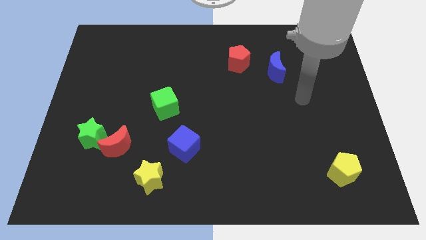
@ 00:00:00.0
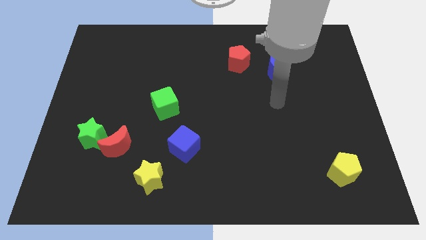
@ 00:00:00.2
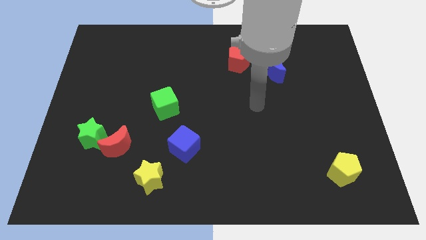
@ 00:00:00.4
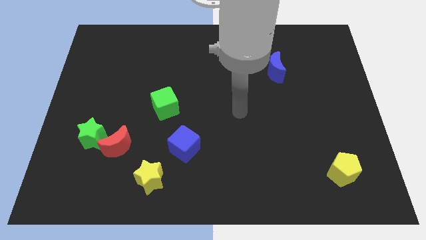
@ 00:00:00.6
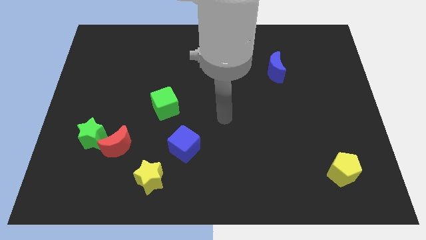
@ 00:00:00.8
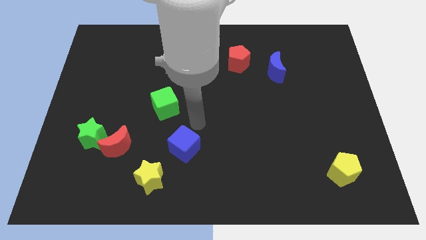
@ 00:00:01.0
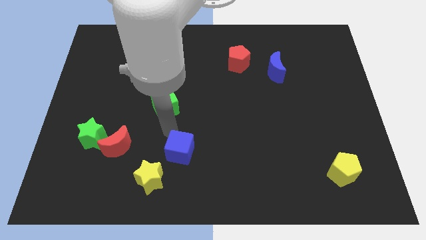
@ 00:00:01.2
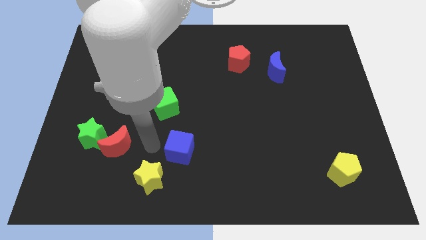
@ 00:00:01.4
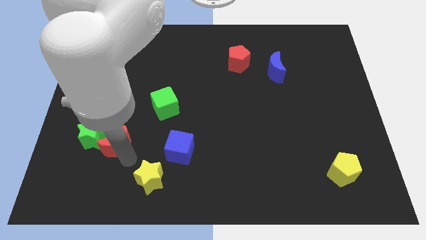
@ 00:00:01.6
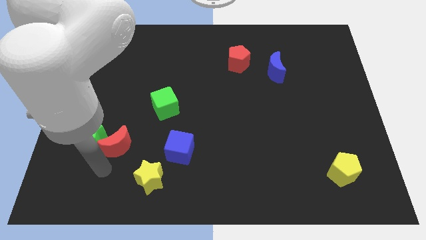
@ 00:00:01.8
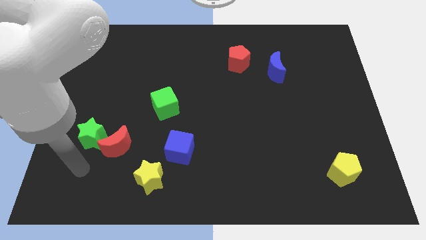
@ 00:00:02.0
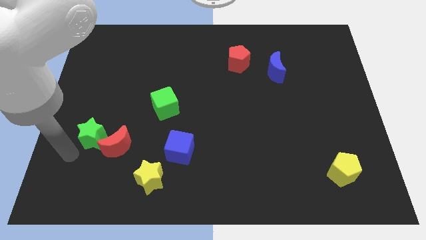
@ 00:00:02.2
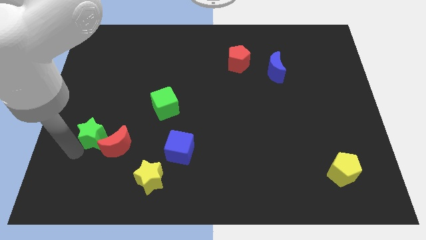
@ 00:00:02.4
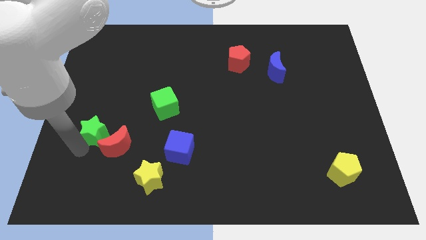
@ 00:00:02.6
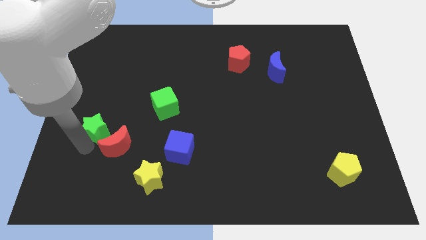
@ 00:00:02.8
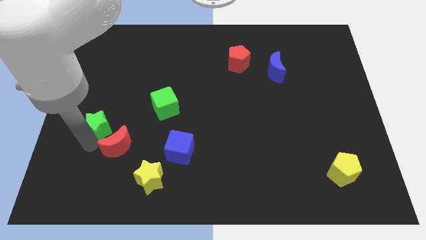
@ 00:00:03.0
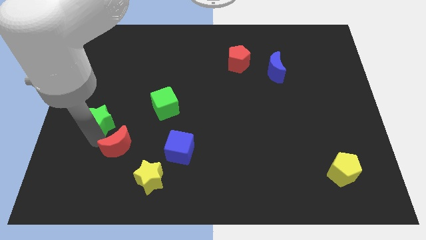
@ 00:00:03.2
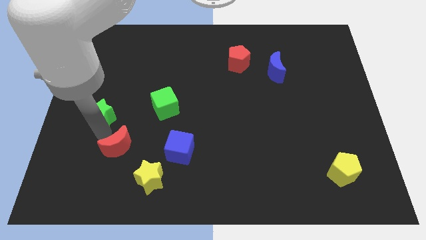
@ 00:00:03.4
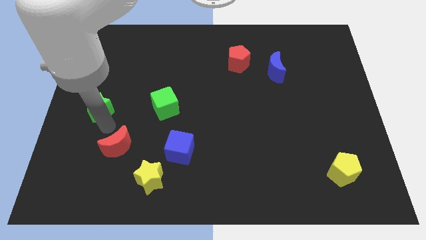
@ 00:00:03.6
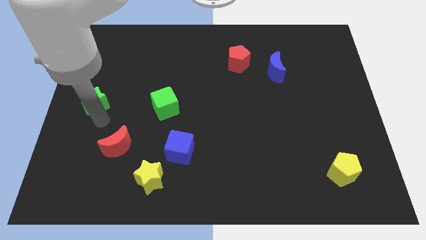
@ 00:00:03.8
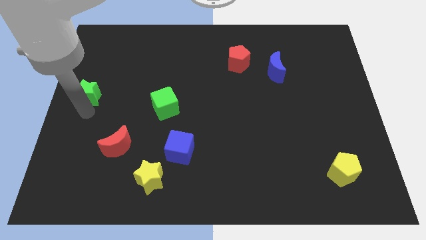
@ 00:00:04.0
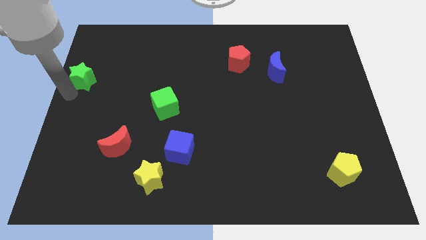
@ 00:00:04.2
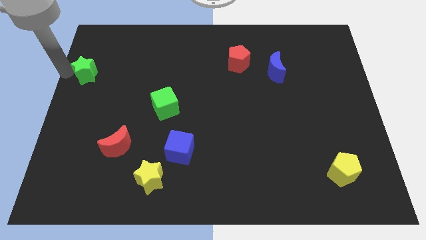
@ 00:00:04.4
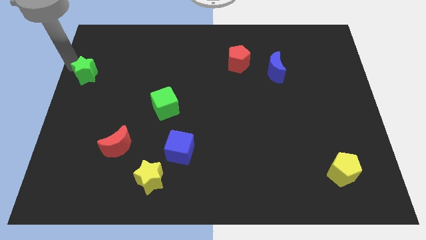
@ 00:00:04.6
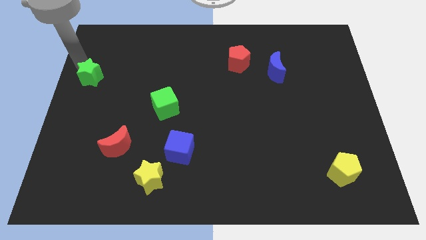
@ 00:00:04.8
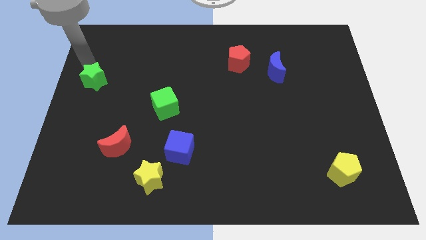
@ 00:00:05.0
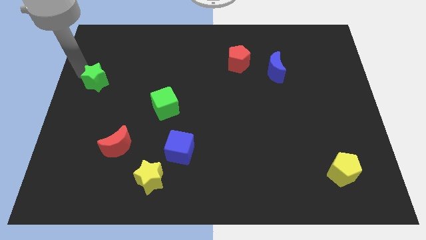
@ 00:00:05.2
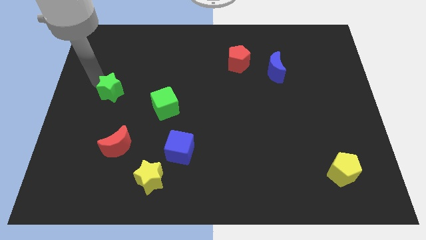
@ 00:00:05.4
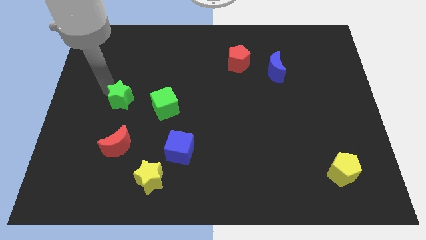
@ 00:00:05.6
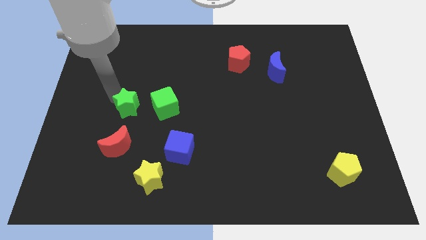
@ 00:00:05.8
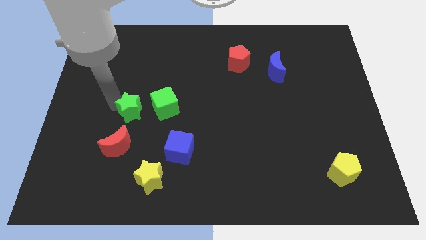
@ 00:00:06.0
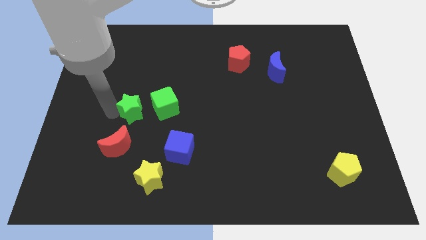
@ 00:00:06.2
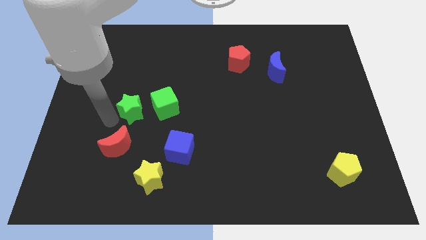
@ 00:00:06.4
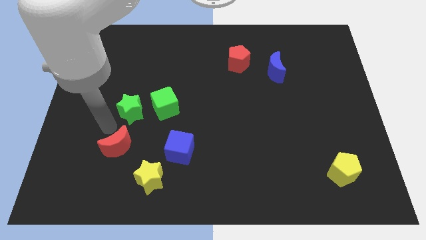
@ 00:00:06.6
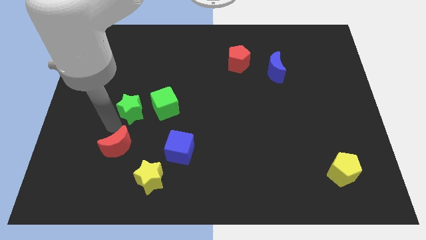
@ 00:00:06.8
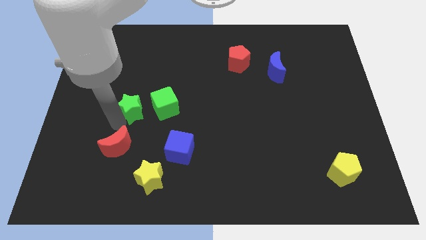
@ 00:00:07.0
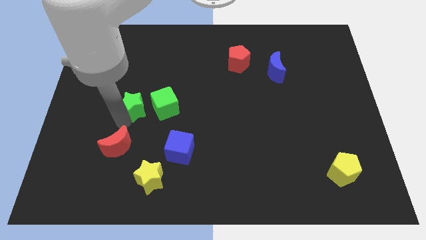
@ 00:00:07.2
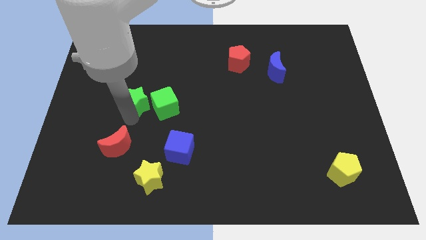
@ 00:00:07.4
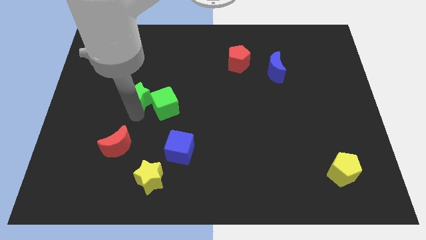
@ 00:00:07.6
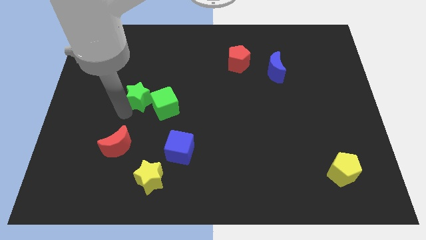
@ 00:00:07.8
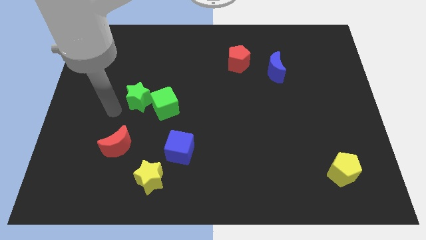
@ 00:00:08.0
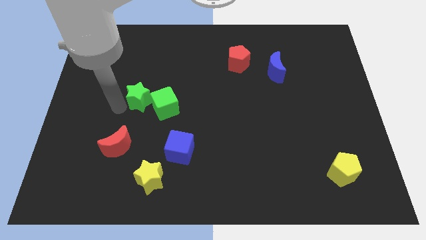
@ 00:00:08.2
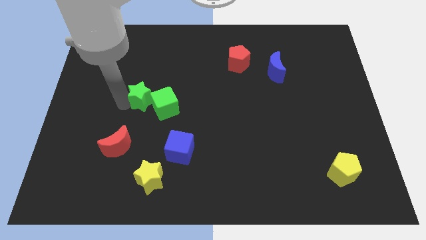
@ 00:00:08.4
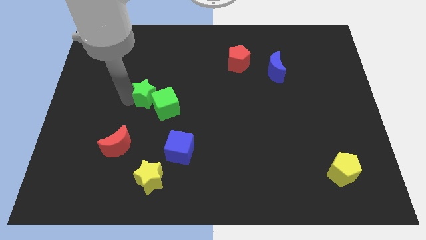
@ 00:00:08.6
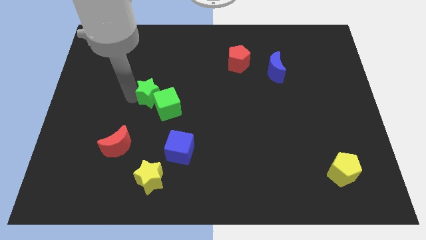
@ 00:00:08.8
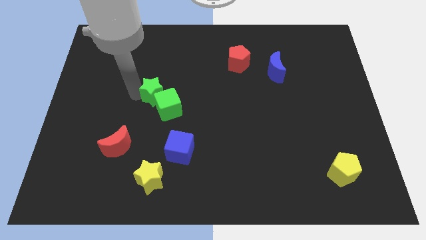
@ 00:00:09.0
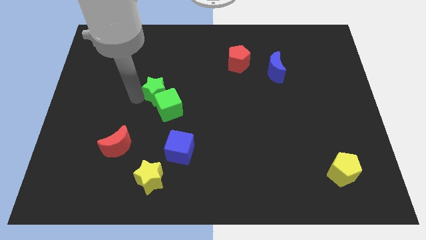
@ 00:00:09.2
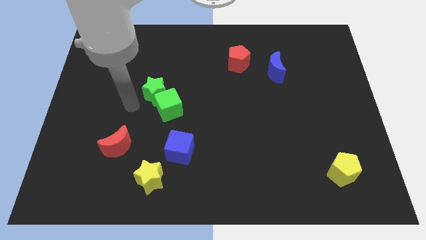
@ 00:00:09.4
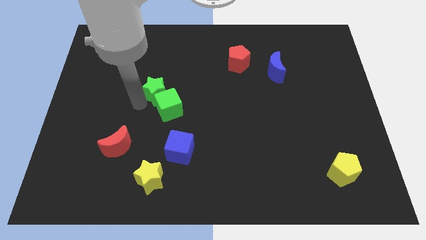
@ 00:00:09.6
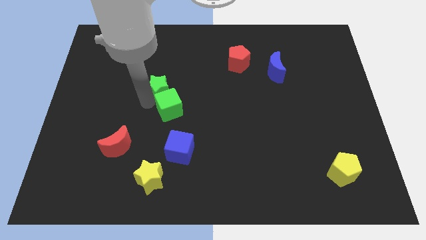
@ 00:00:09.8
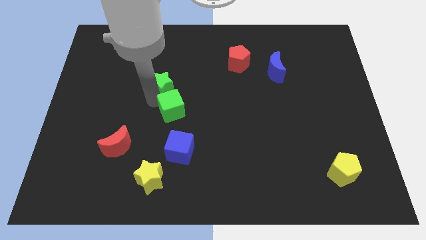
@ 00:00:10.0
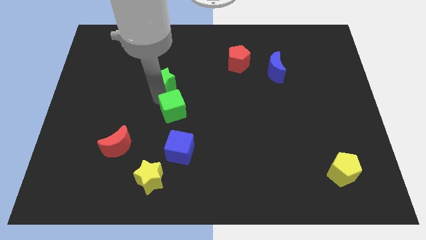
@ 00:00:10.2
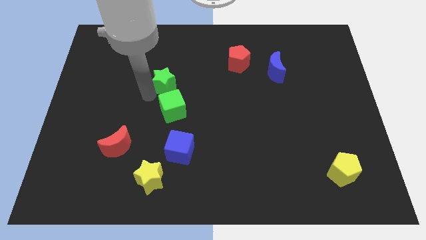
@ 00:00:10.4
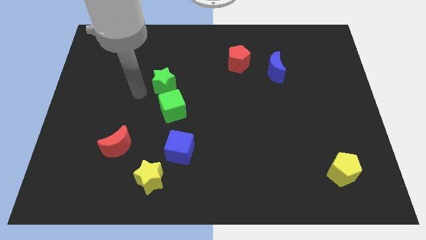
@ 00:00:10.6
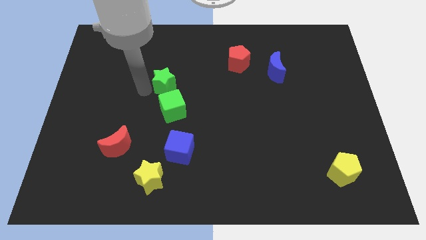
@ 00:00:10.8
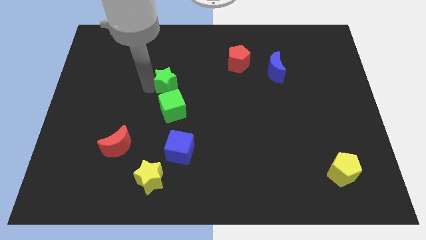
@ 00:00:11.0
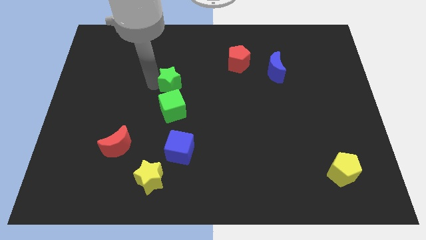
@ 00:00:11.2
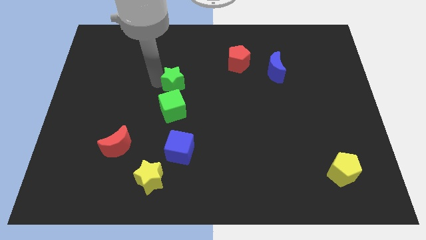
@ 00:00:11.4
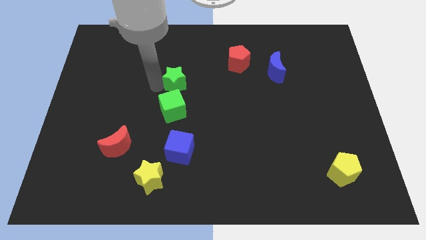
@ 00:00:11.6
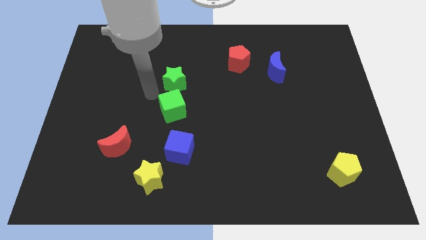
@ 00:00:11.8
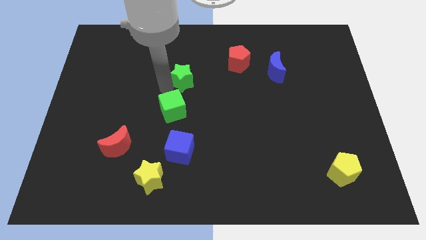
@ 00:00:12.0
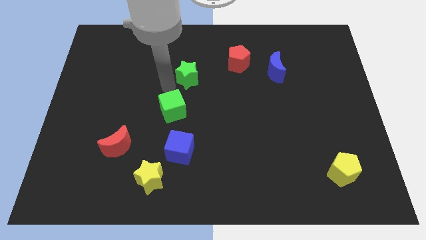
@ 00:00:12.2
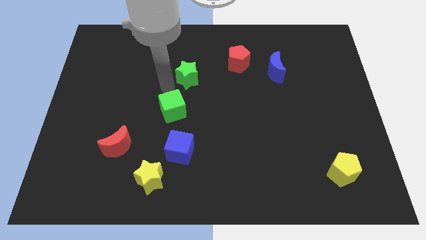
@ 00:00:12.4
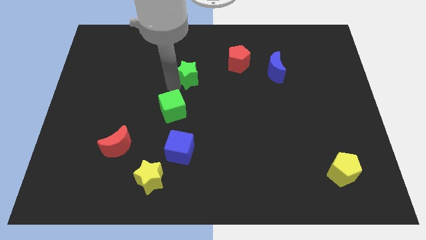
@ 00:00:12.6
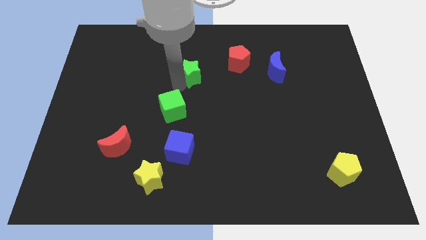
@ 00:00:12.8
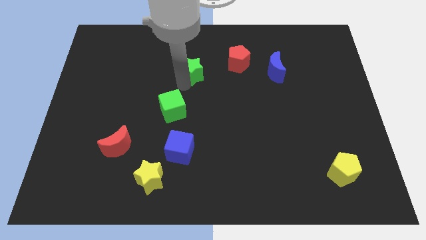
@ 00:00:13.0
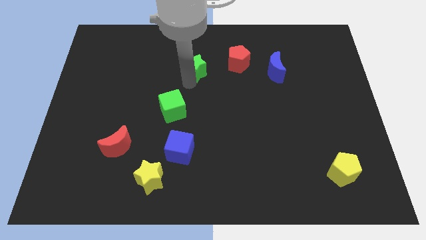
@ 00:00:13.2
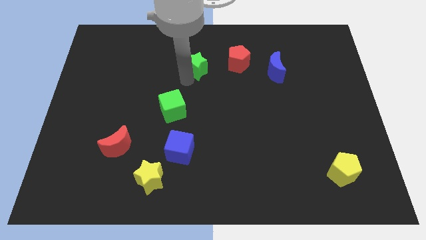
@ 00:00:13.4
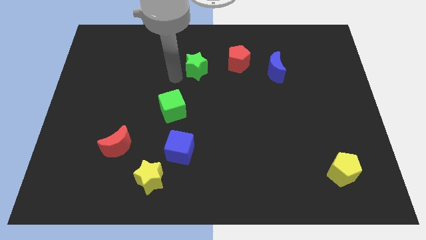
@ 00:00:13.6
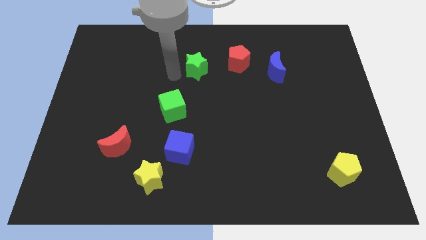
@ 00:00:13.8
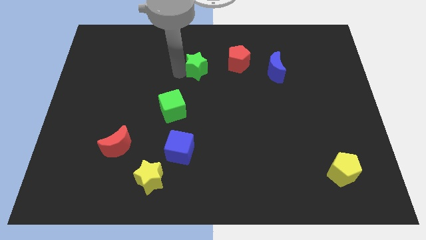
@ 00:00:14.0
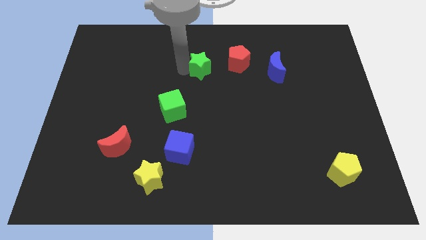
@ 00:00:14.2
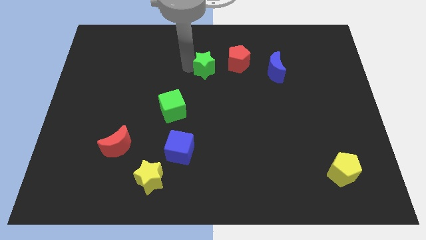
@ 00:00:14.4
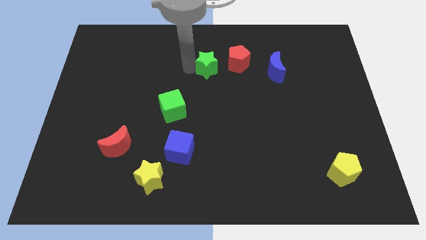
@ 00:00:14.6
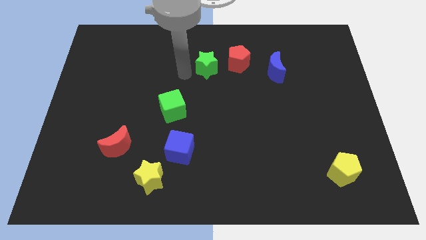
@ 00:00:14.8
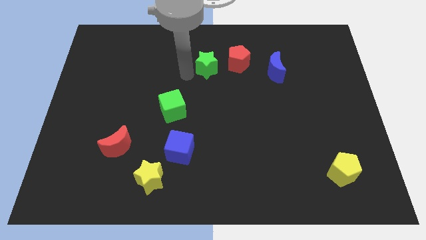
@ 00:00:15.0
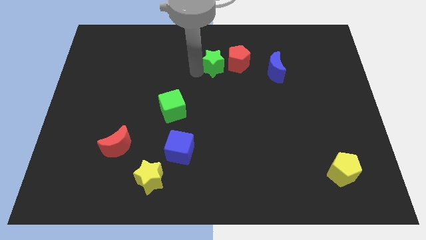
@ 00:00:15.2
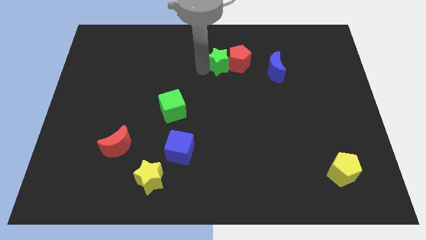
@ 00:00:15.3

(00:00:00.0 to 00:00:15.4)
slide the green star next to the red pentagon
